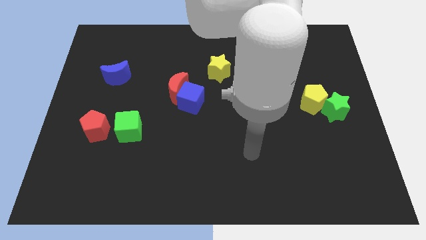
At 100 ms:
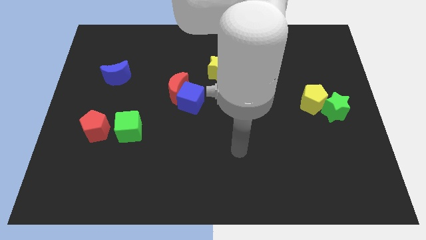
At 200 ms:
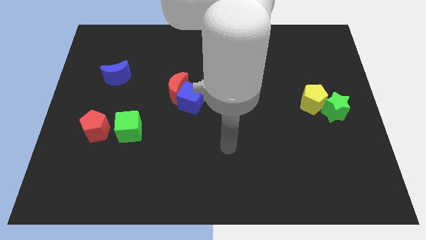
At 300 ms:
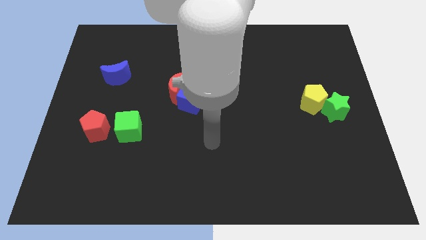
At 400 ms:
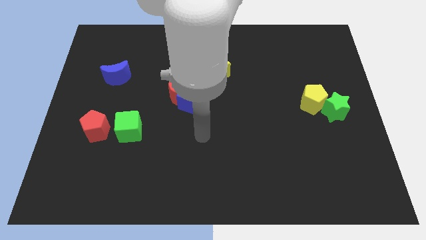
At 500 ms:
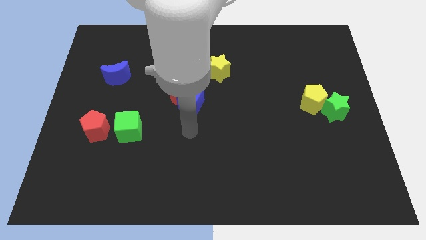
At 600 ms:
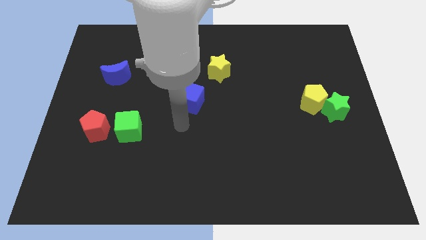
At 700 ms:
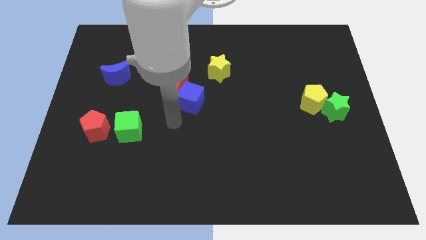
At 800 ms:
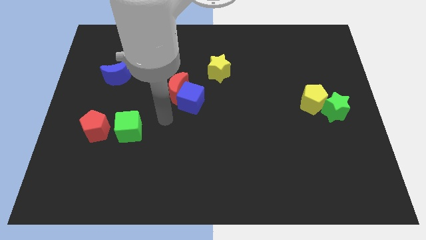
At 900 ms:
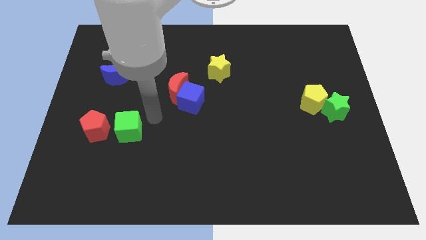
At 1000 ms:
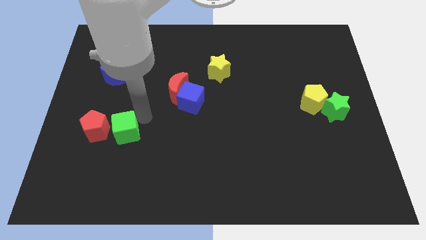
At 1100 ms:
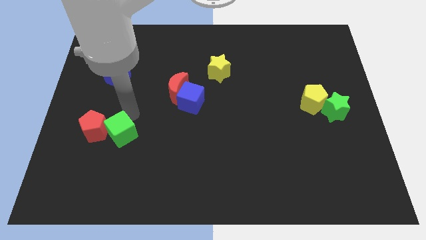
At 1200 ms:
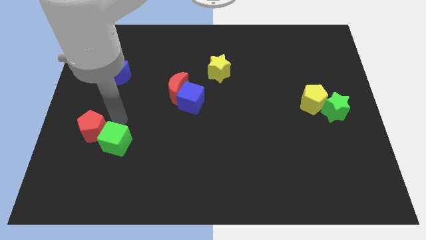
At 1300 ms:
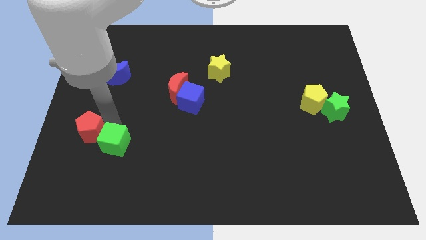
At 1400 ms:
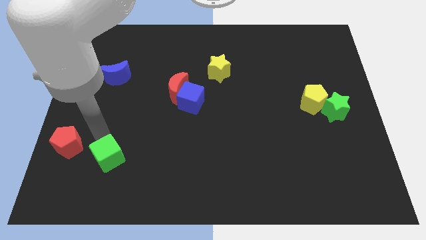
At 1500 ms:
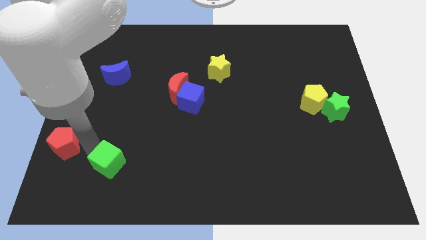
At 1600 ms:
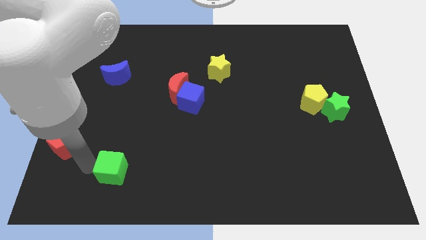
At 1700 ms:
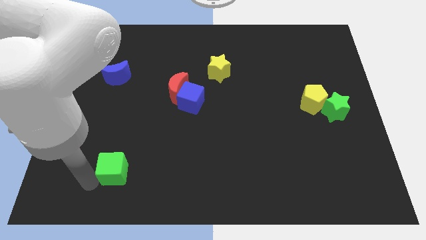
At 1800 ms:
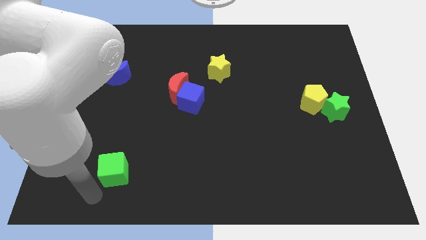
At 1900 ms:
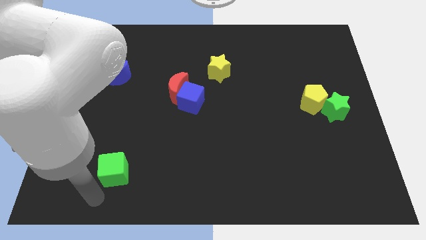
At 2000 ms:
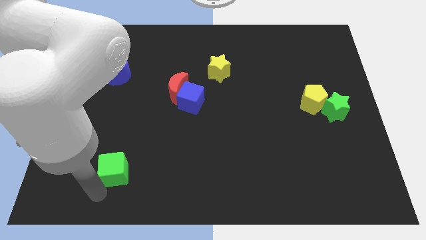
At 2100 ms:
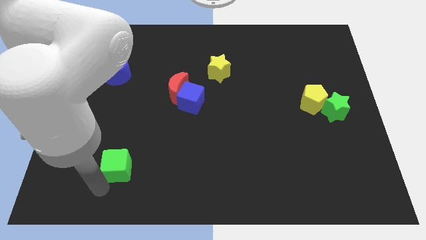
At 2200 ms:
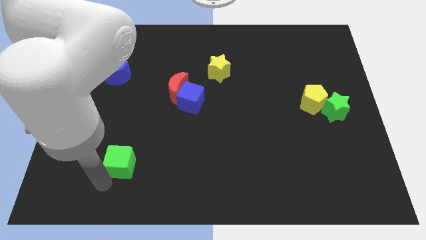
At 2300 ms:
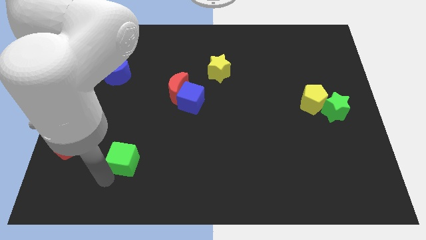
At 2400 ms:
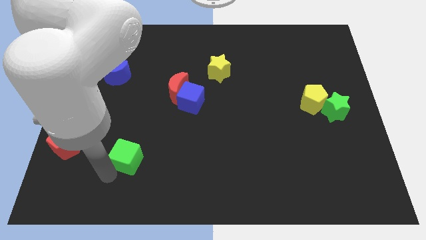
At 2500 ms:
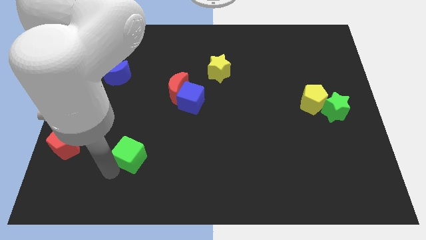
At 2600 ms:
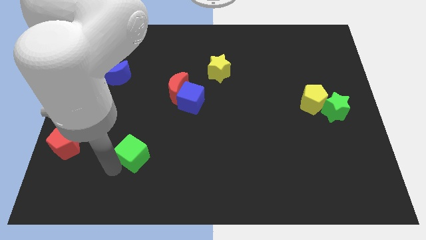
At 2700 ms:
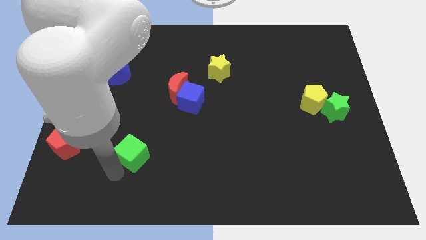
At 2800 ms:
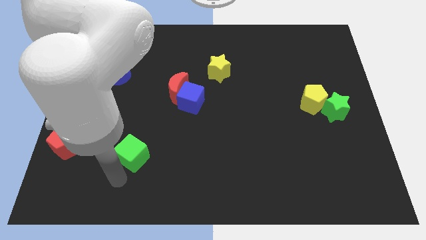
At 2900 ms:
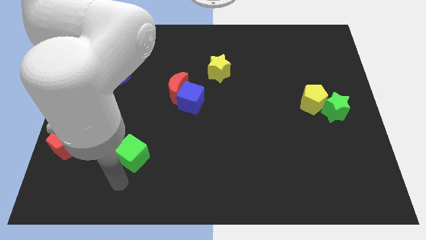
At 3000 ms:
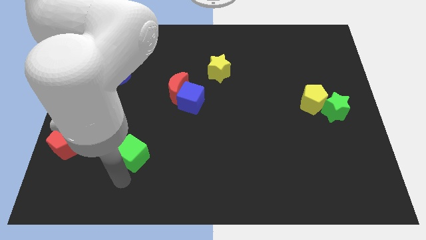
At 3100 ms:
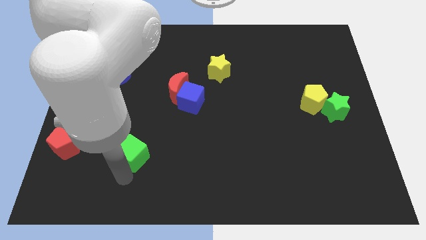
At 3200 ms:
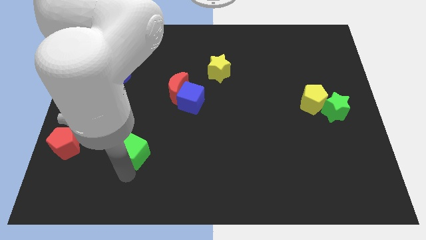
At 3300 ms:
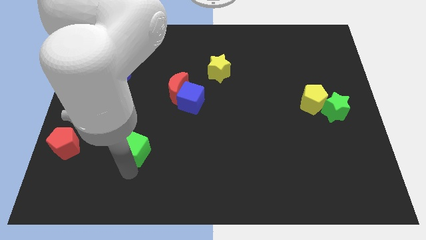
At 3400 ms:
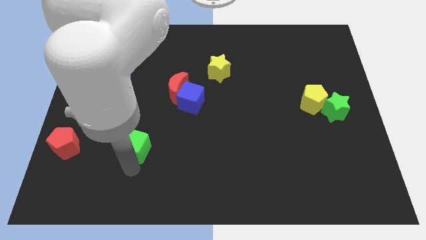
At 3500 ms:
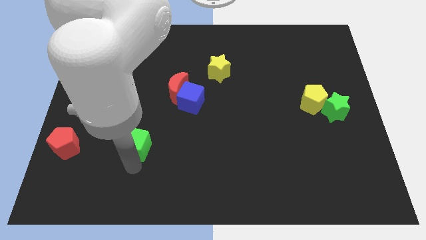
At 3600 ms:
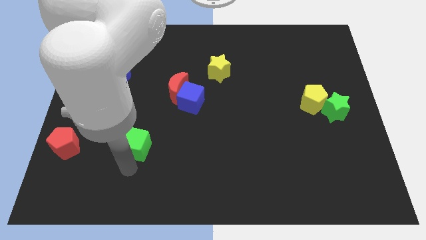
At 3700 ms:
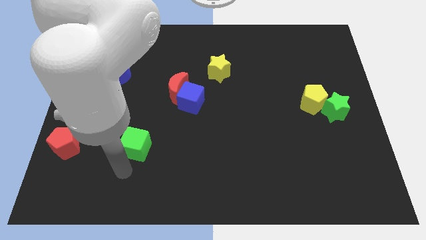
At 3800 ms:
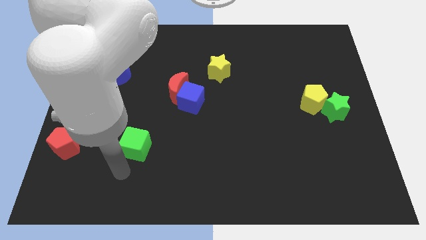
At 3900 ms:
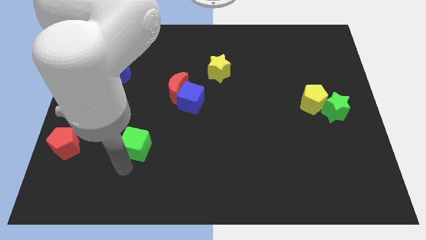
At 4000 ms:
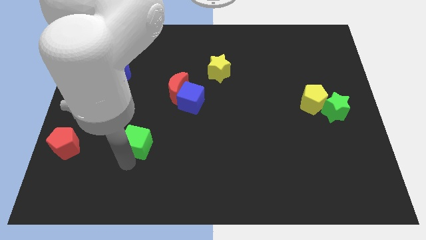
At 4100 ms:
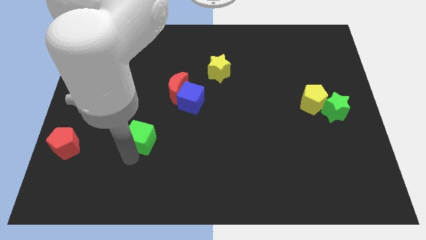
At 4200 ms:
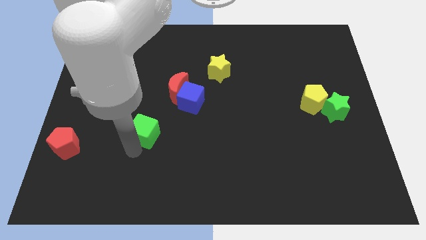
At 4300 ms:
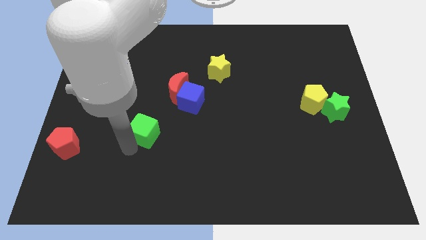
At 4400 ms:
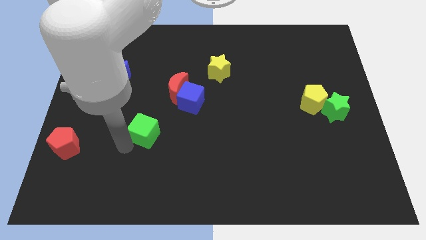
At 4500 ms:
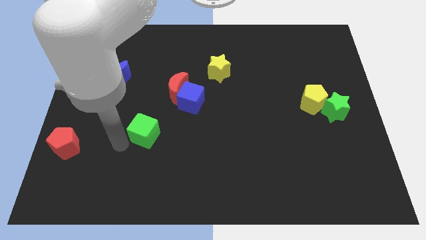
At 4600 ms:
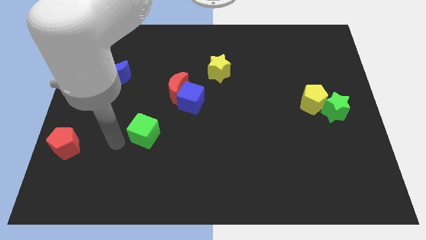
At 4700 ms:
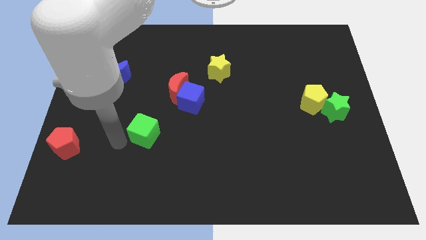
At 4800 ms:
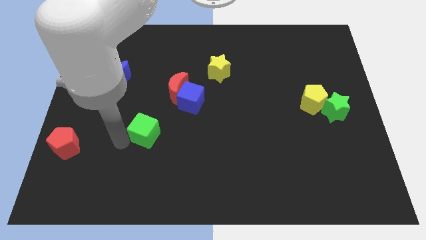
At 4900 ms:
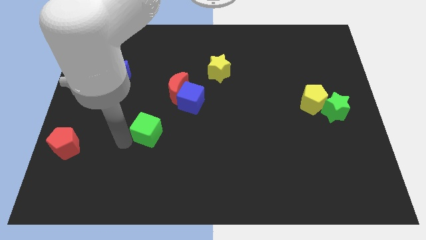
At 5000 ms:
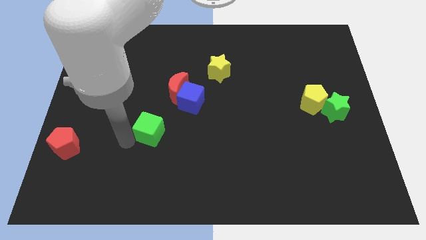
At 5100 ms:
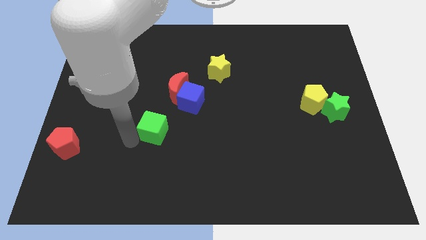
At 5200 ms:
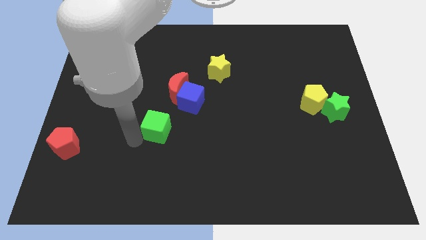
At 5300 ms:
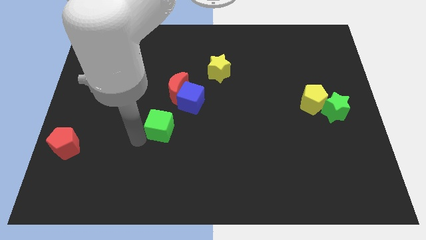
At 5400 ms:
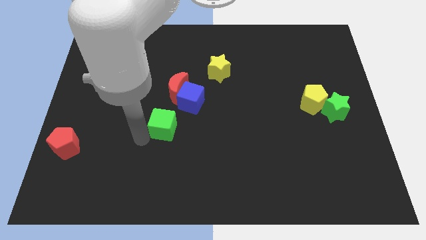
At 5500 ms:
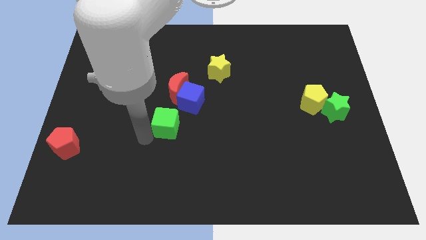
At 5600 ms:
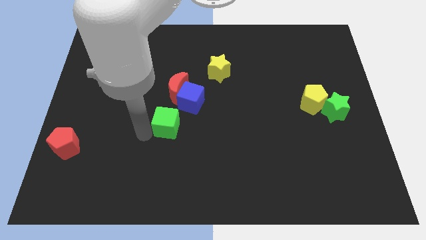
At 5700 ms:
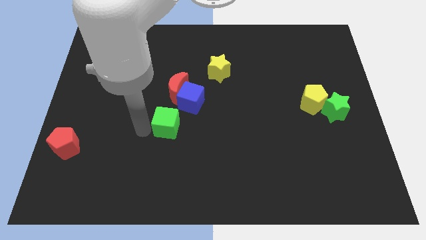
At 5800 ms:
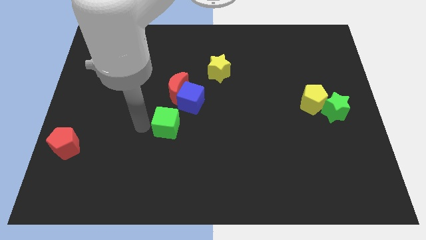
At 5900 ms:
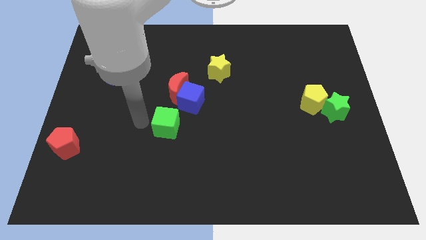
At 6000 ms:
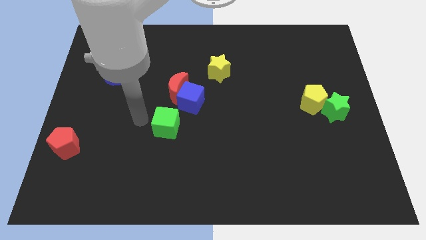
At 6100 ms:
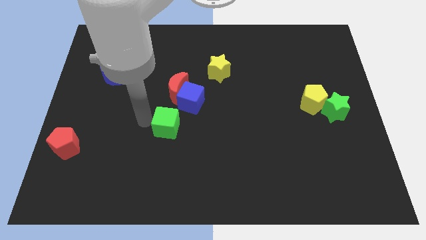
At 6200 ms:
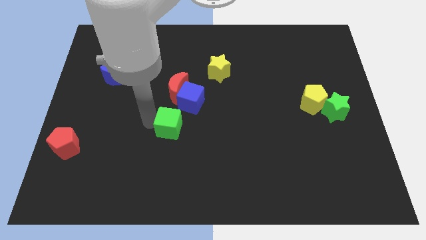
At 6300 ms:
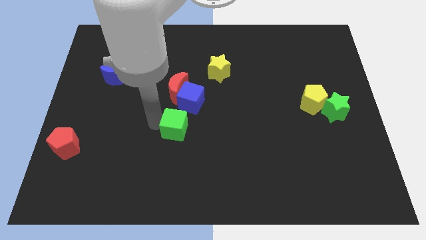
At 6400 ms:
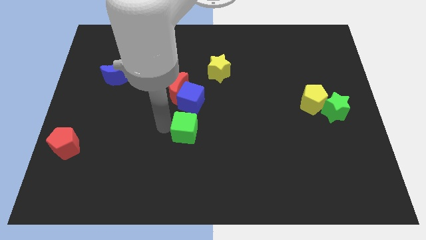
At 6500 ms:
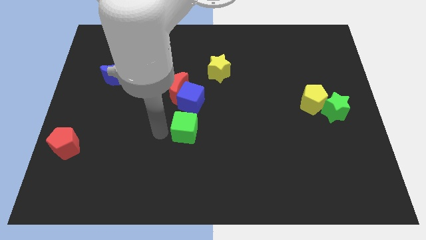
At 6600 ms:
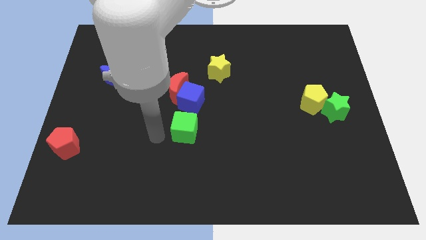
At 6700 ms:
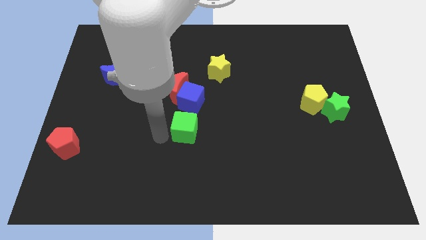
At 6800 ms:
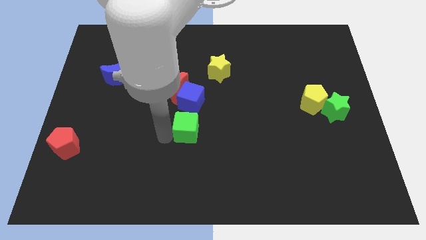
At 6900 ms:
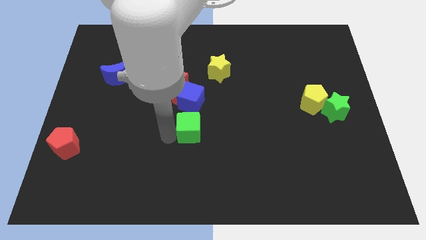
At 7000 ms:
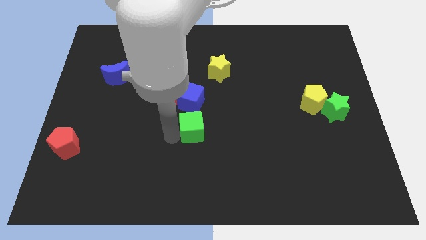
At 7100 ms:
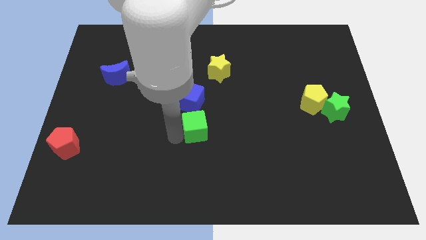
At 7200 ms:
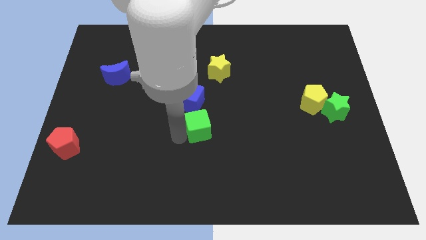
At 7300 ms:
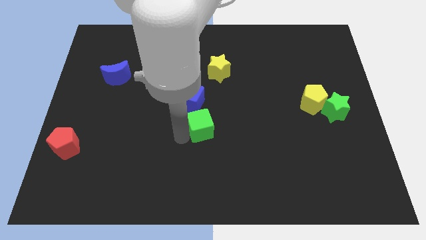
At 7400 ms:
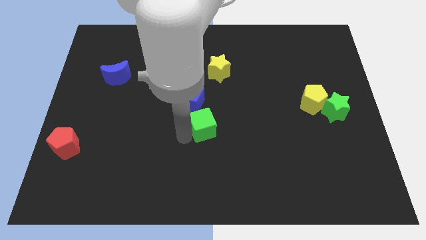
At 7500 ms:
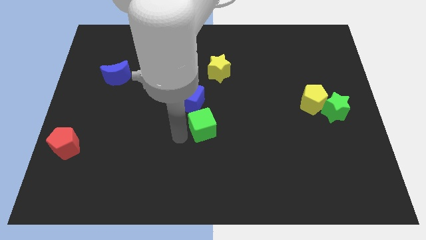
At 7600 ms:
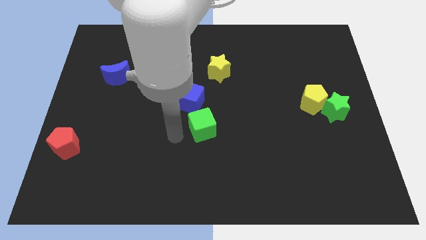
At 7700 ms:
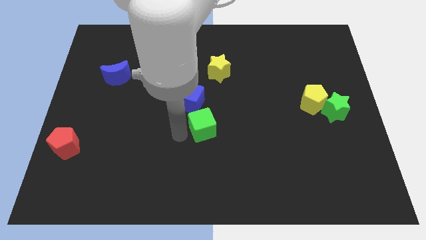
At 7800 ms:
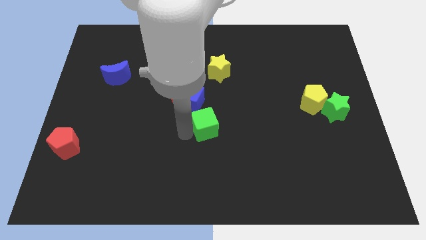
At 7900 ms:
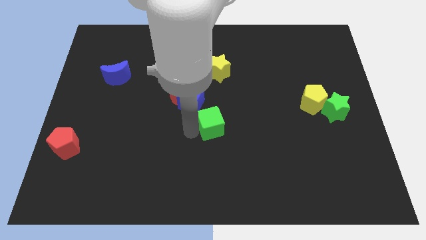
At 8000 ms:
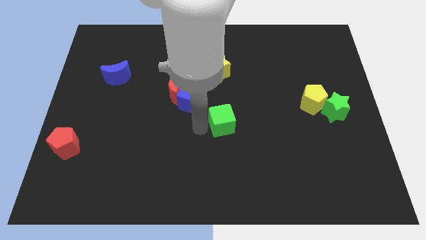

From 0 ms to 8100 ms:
move the green cube to the right

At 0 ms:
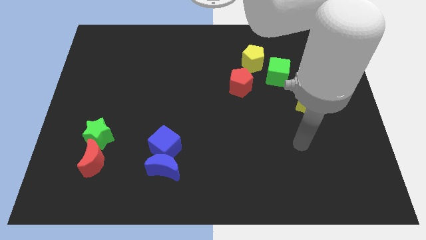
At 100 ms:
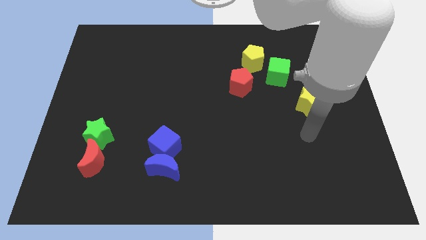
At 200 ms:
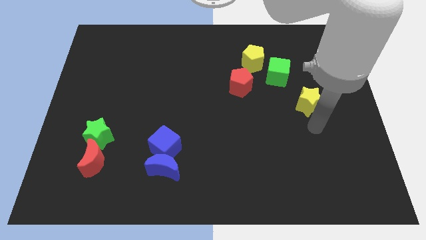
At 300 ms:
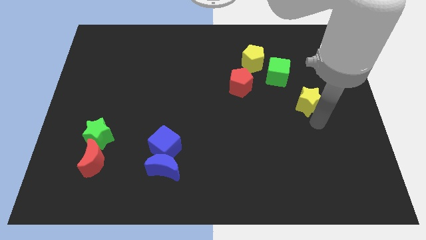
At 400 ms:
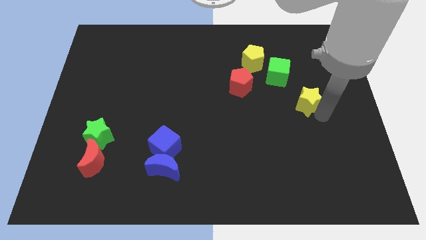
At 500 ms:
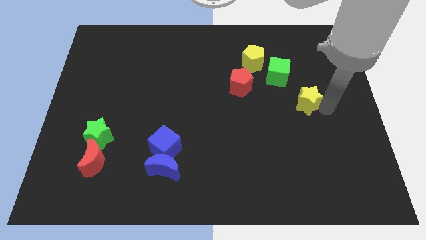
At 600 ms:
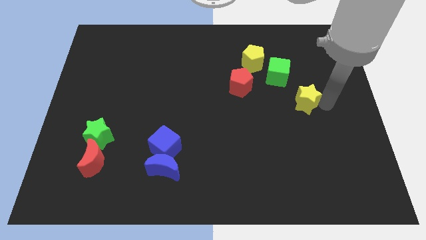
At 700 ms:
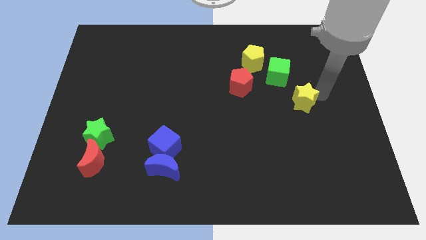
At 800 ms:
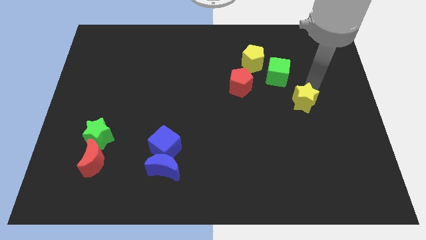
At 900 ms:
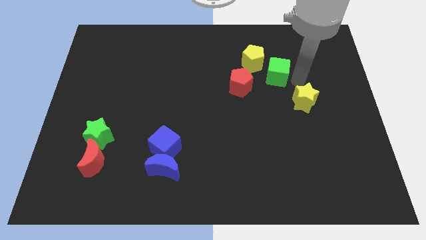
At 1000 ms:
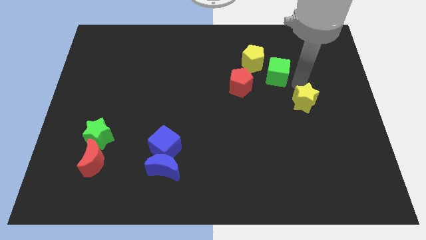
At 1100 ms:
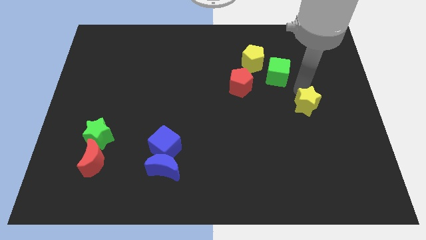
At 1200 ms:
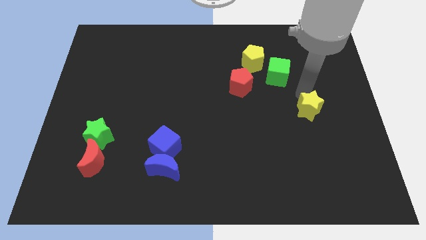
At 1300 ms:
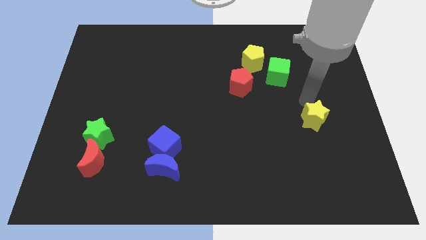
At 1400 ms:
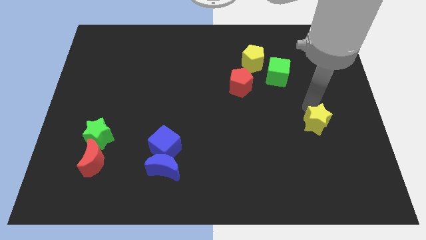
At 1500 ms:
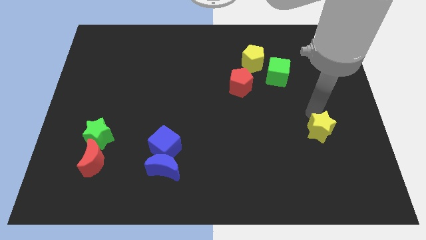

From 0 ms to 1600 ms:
slightly move the yellow star down
